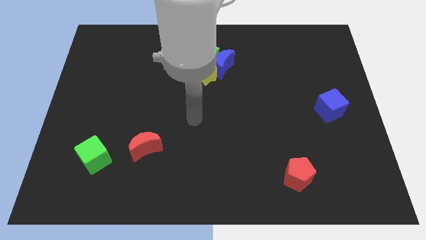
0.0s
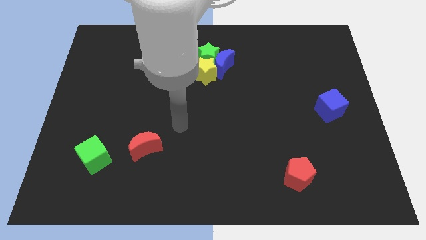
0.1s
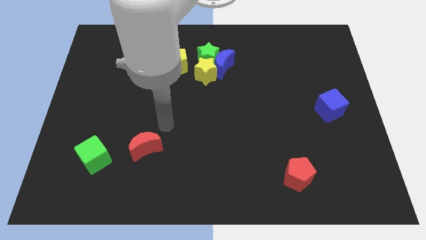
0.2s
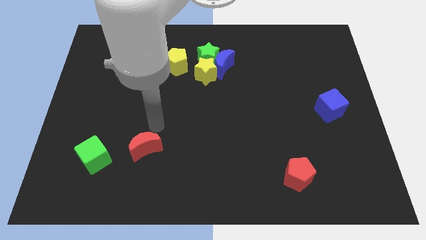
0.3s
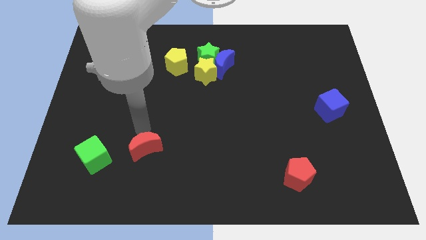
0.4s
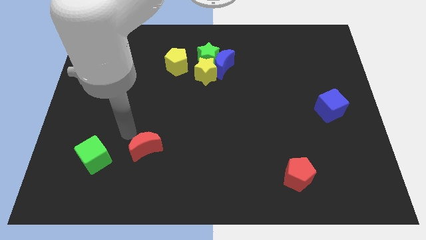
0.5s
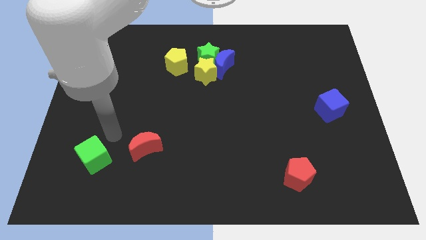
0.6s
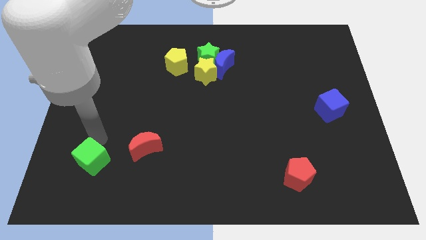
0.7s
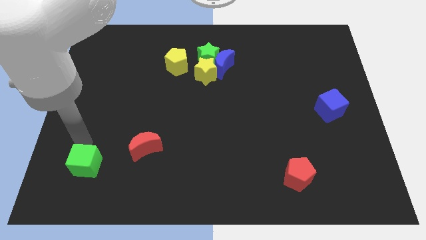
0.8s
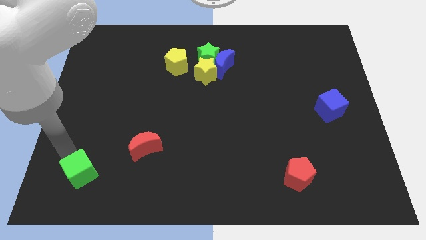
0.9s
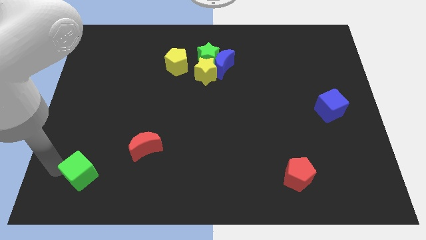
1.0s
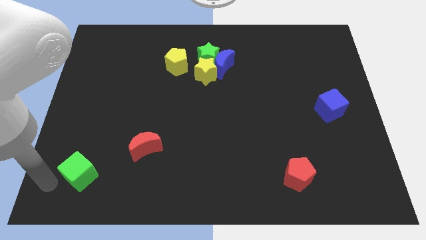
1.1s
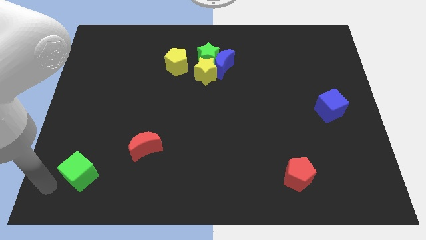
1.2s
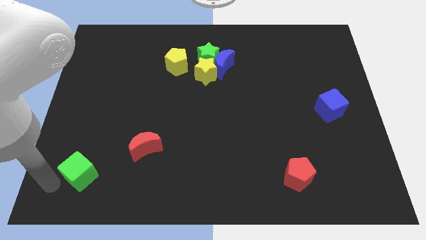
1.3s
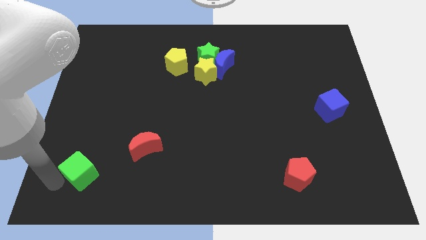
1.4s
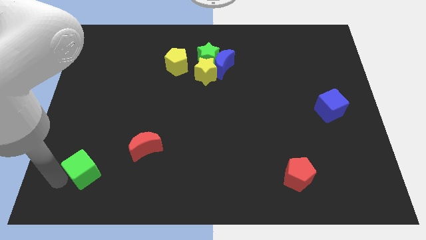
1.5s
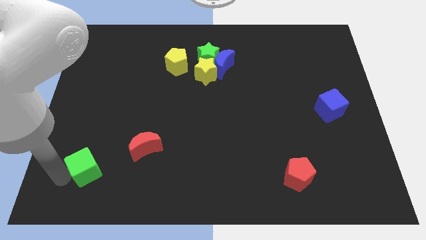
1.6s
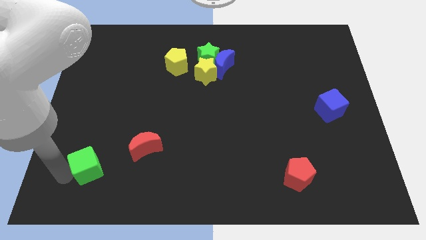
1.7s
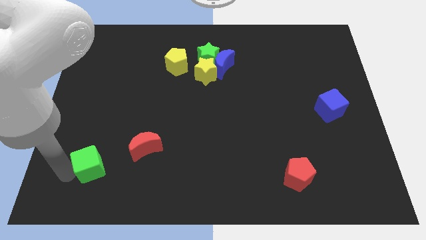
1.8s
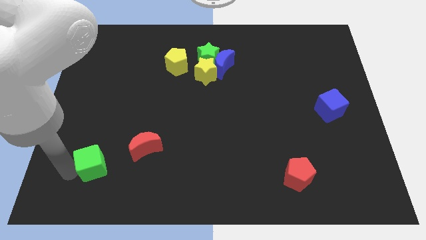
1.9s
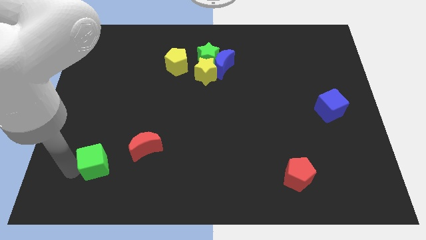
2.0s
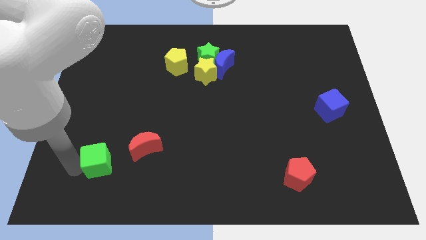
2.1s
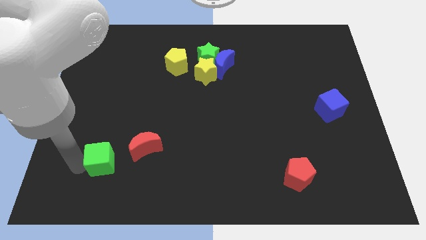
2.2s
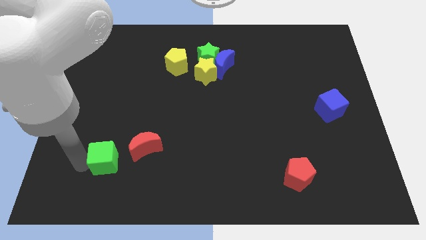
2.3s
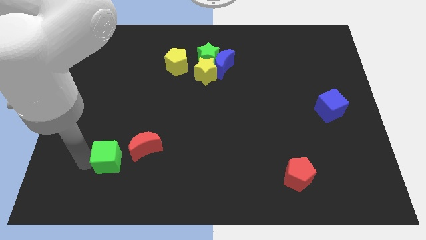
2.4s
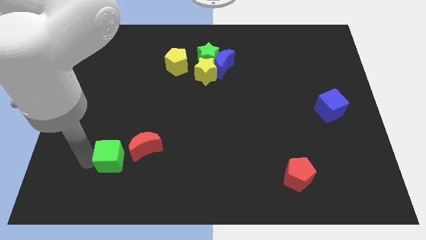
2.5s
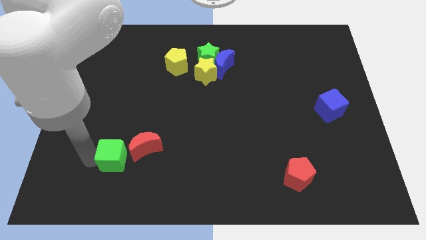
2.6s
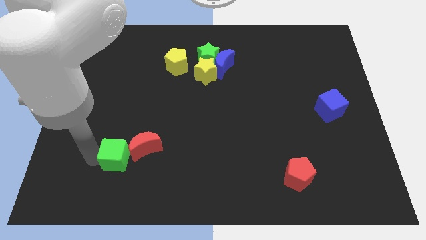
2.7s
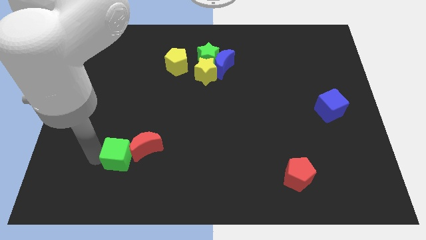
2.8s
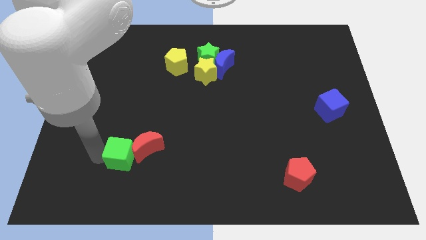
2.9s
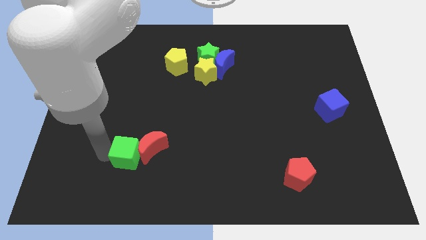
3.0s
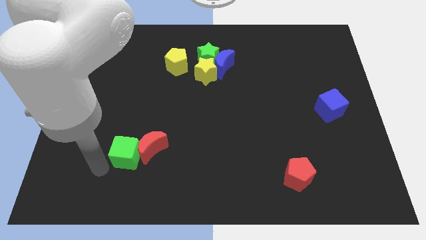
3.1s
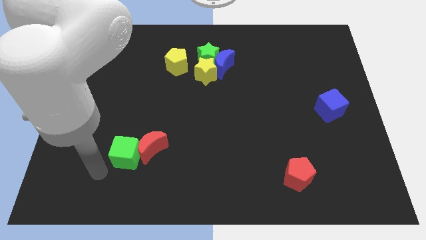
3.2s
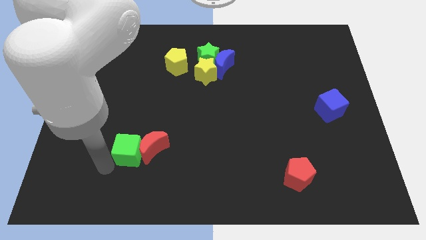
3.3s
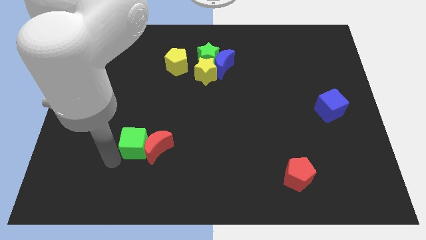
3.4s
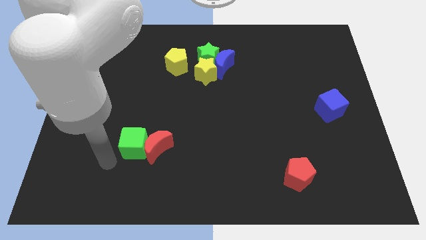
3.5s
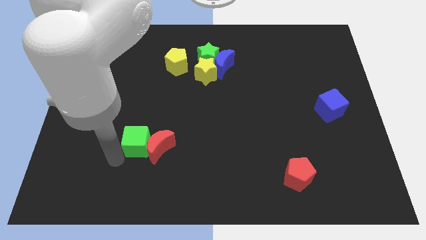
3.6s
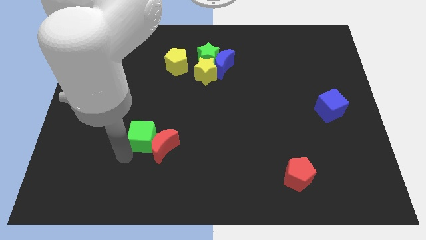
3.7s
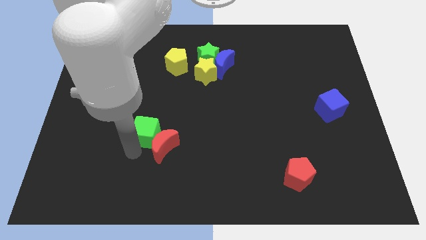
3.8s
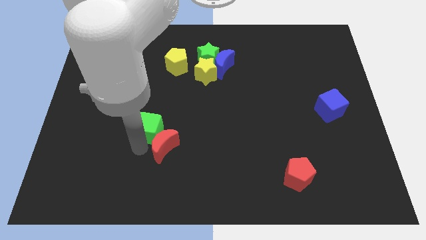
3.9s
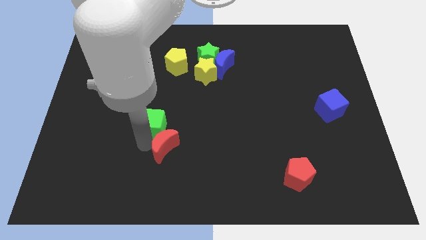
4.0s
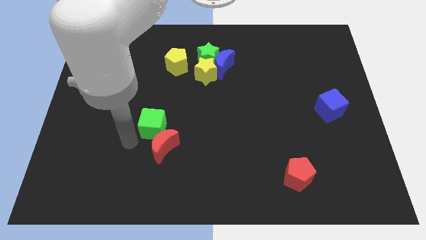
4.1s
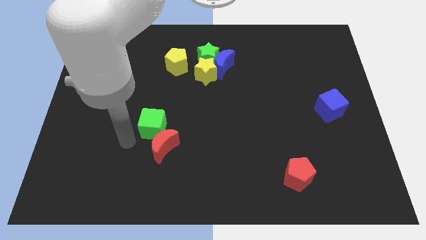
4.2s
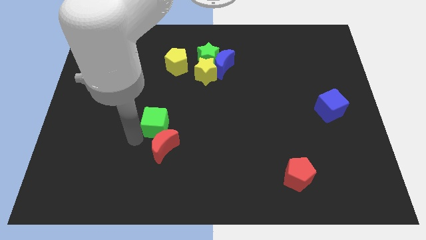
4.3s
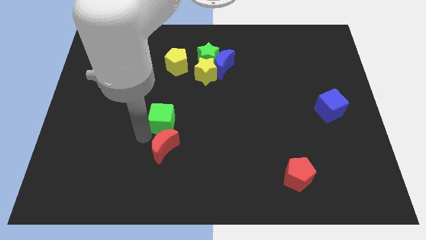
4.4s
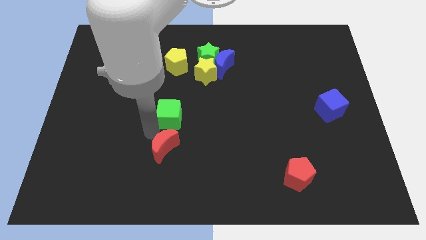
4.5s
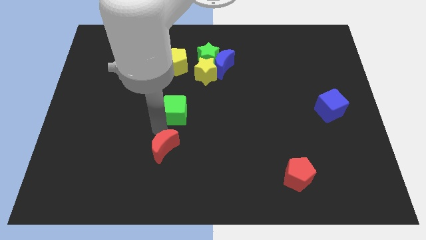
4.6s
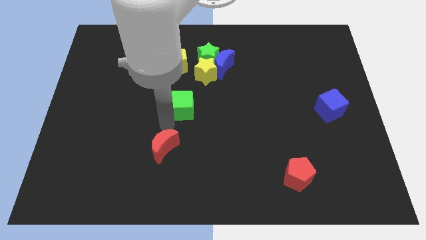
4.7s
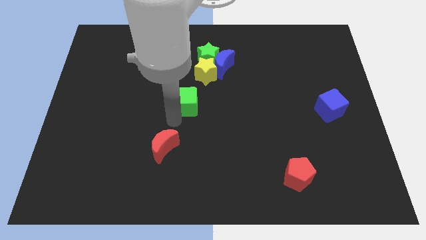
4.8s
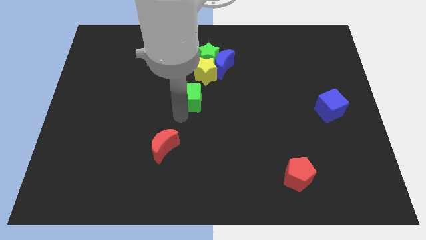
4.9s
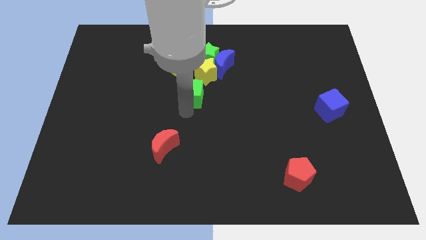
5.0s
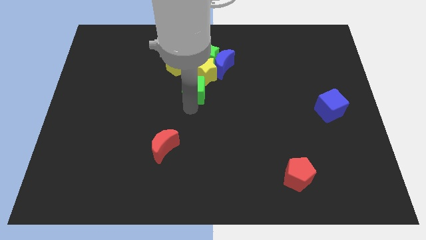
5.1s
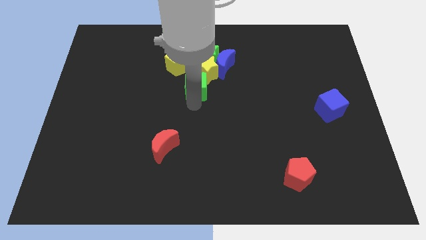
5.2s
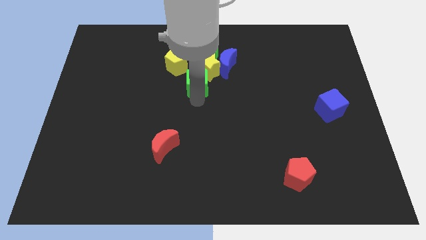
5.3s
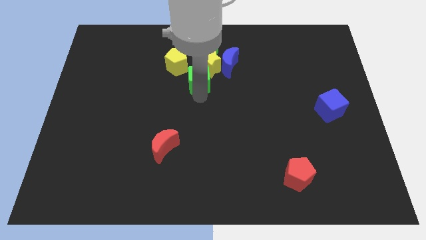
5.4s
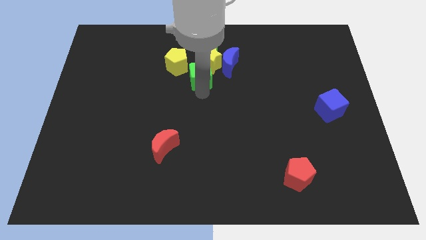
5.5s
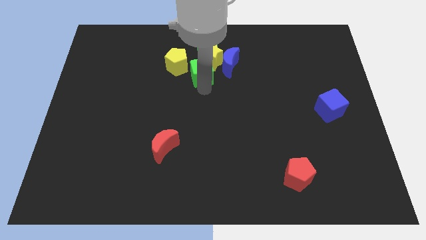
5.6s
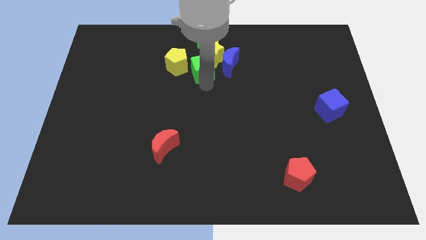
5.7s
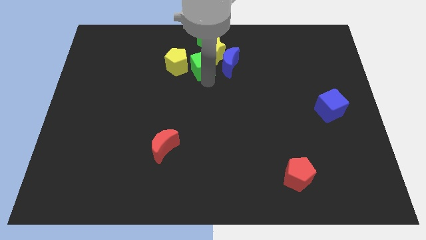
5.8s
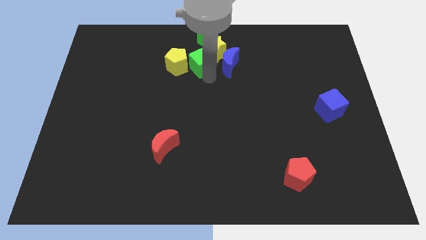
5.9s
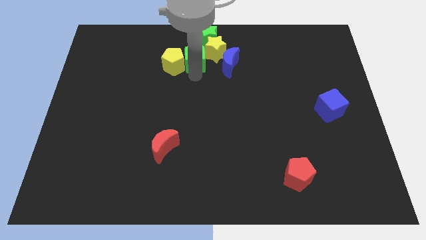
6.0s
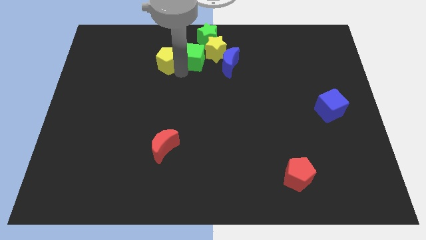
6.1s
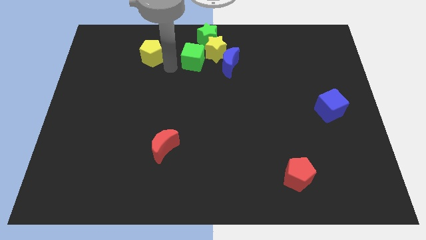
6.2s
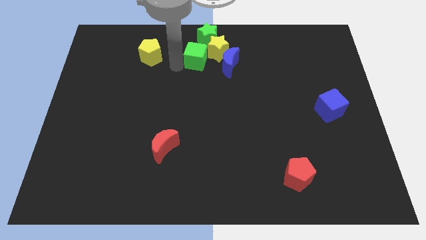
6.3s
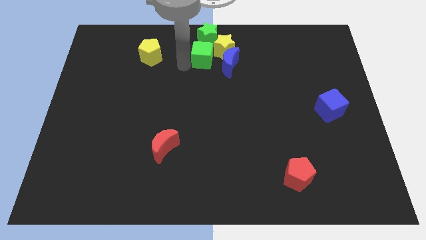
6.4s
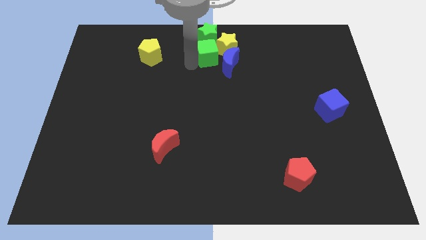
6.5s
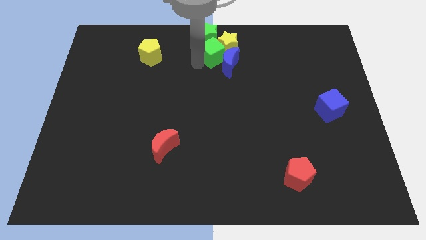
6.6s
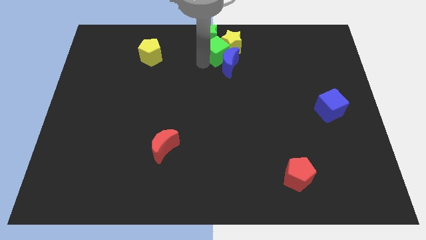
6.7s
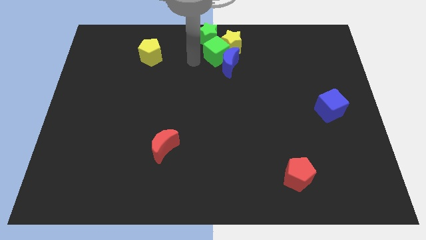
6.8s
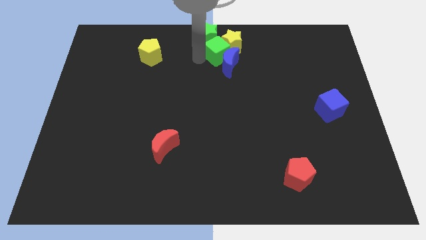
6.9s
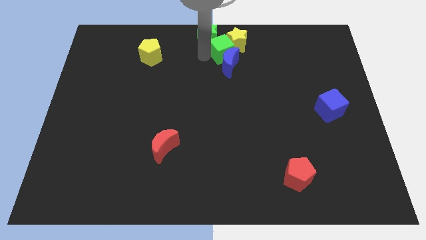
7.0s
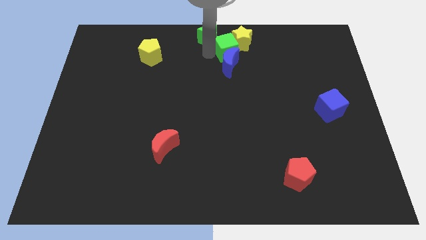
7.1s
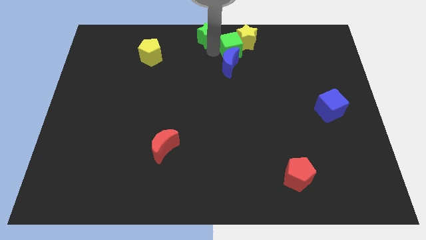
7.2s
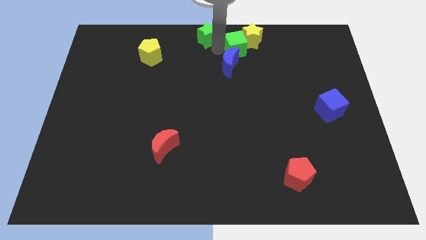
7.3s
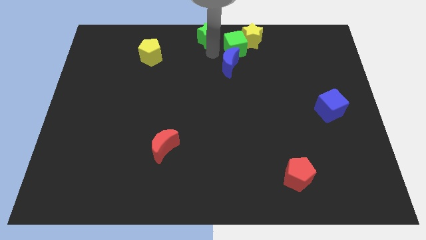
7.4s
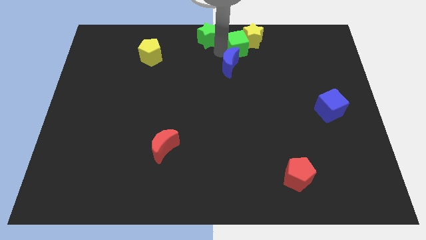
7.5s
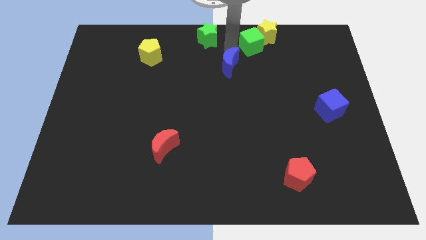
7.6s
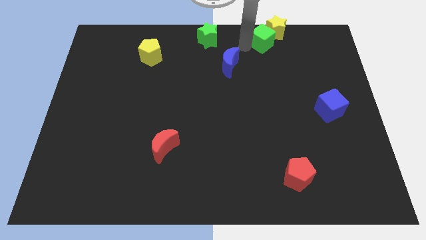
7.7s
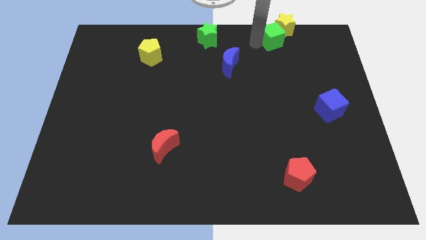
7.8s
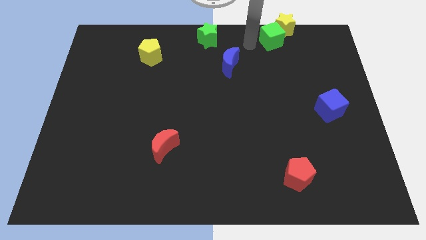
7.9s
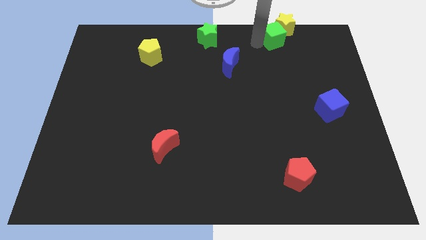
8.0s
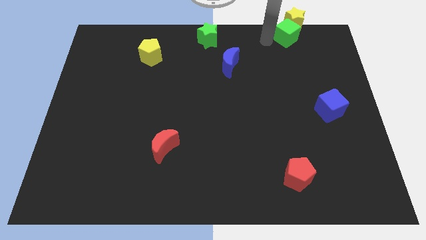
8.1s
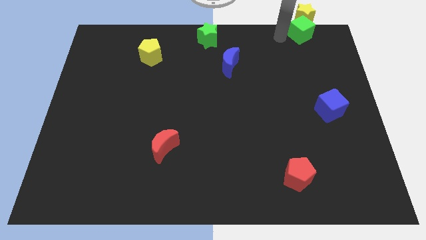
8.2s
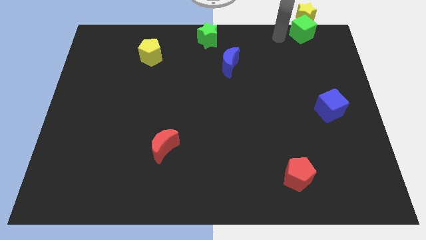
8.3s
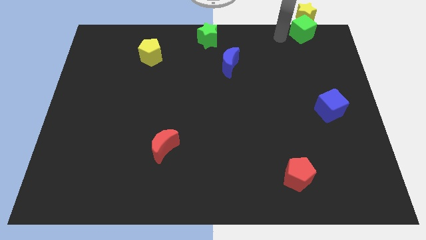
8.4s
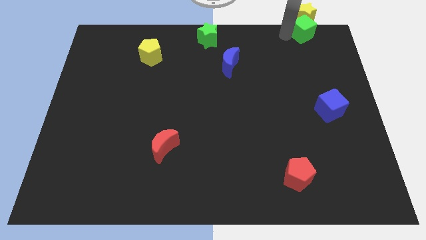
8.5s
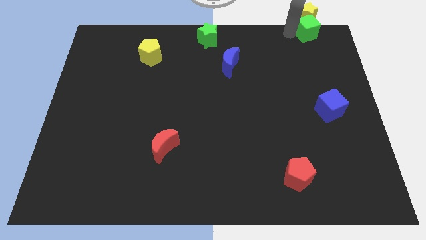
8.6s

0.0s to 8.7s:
put the green cube to the top right
